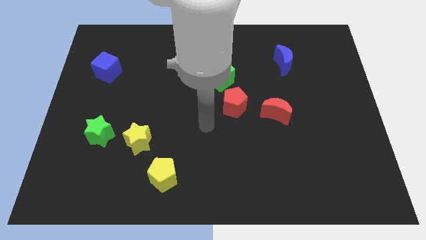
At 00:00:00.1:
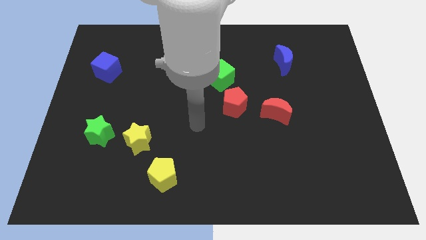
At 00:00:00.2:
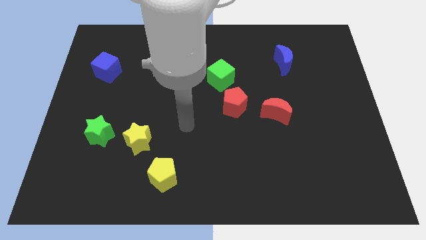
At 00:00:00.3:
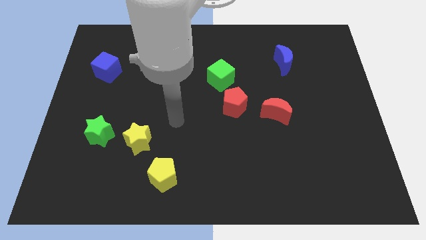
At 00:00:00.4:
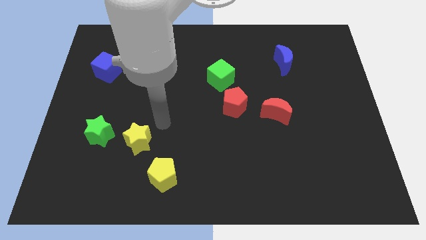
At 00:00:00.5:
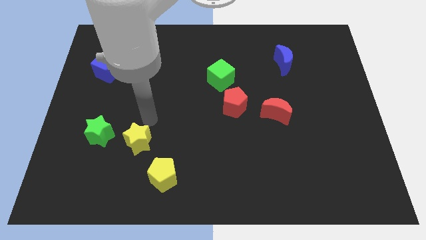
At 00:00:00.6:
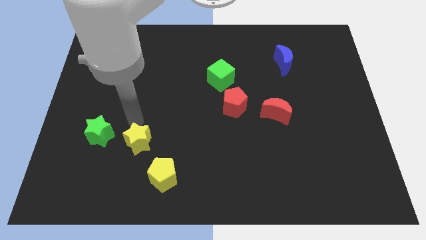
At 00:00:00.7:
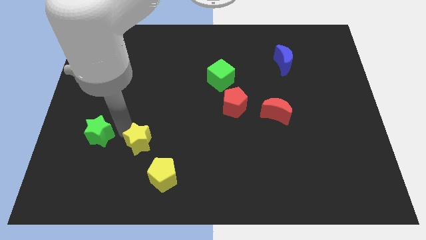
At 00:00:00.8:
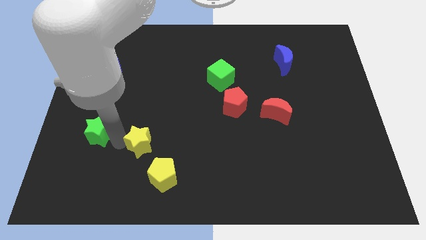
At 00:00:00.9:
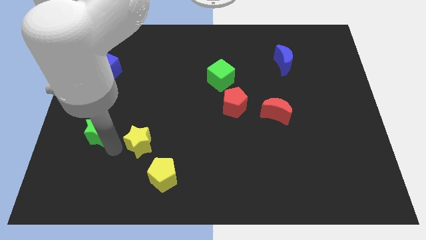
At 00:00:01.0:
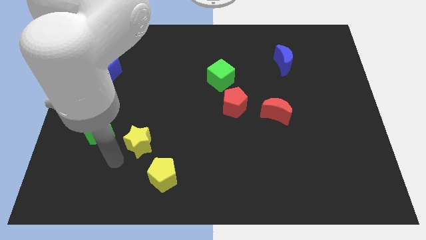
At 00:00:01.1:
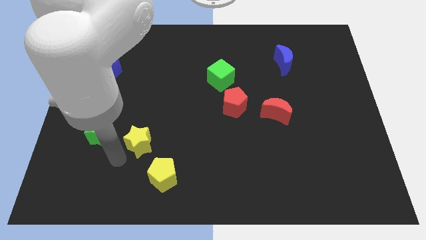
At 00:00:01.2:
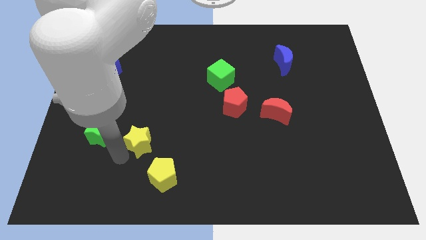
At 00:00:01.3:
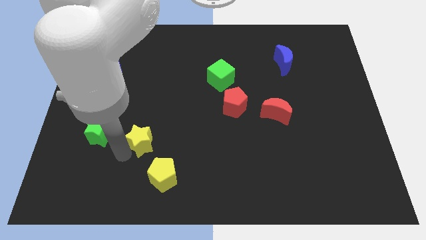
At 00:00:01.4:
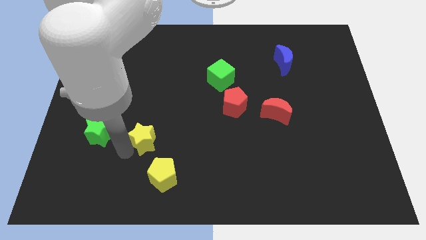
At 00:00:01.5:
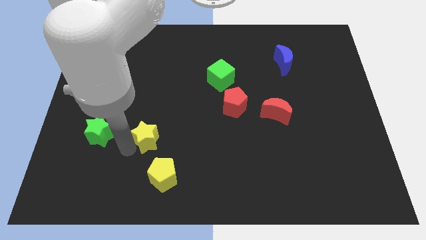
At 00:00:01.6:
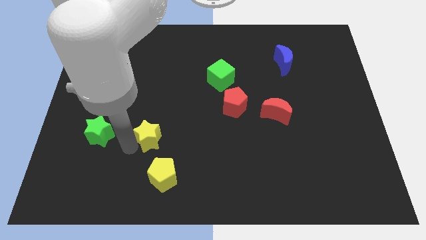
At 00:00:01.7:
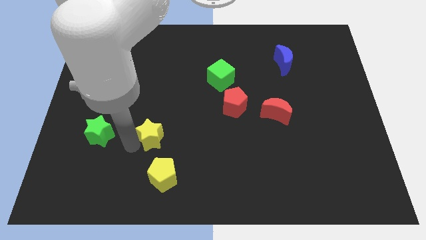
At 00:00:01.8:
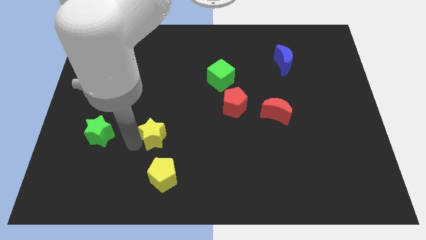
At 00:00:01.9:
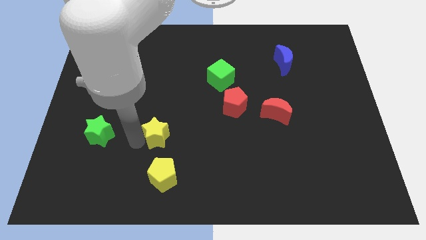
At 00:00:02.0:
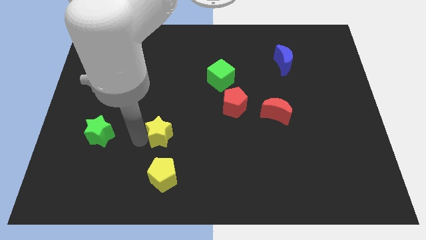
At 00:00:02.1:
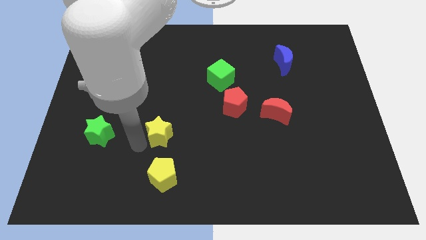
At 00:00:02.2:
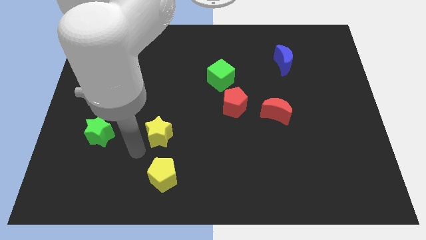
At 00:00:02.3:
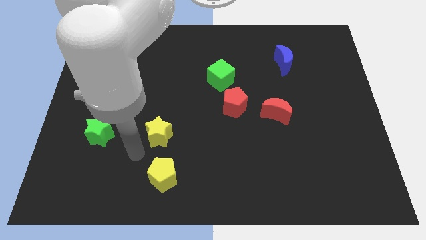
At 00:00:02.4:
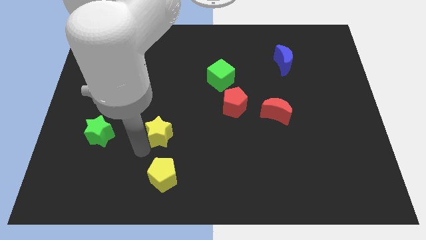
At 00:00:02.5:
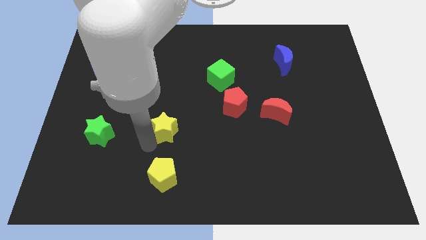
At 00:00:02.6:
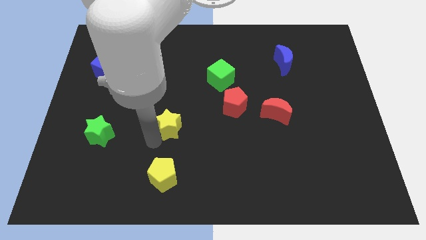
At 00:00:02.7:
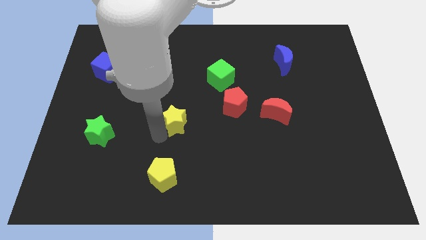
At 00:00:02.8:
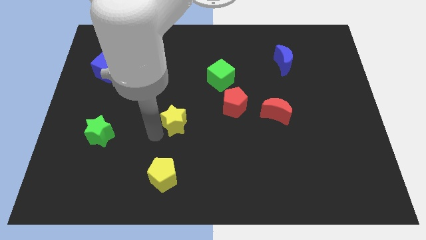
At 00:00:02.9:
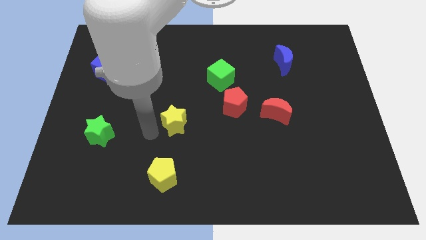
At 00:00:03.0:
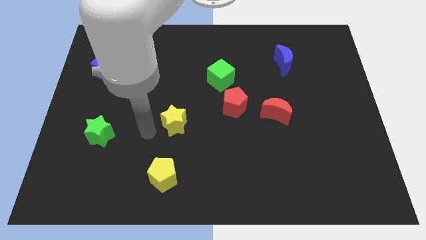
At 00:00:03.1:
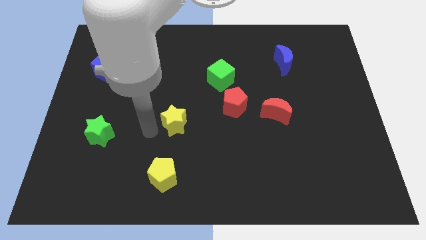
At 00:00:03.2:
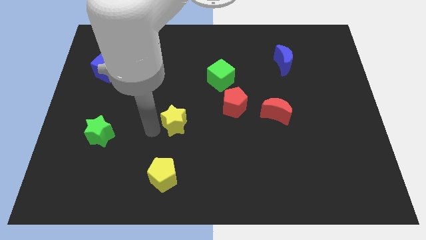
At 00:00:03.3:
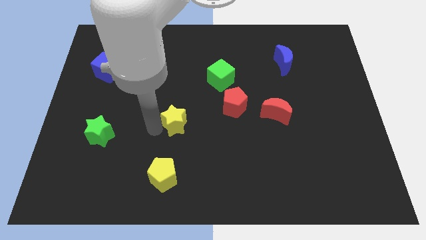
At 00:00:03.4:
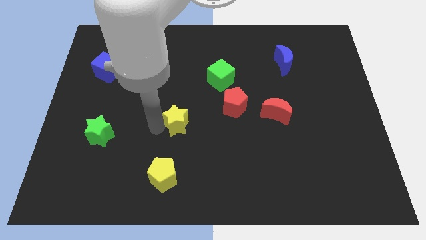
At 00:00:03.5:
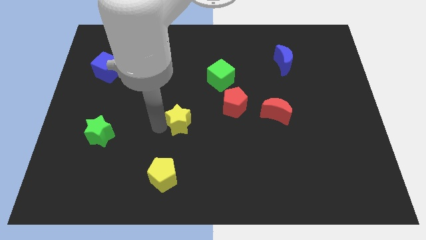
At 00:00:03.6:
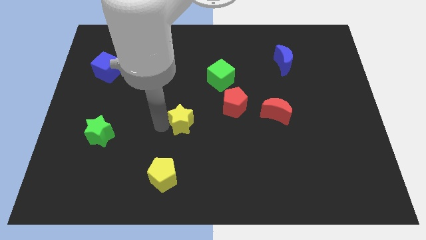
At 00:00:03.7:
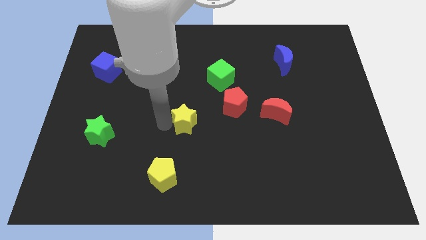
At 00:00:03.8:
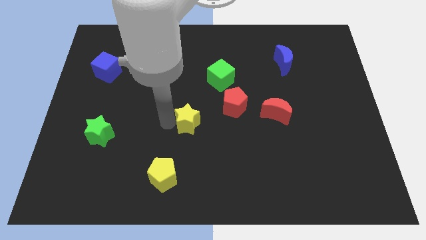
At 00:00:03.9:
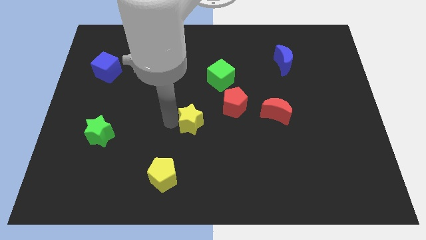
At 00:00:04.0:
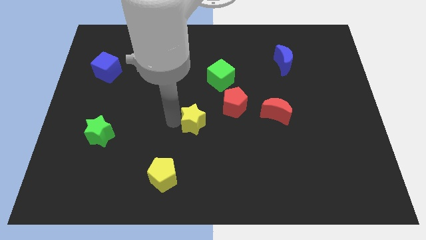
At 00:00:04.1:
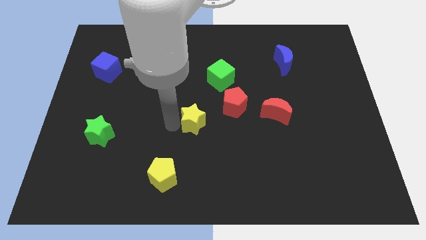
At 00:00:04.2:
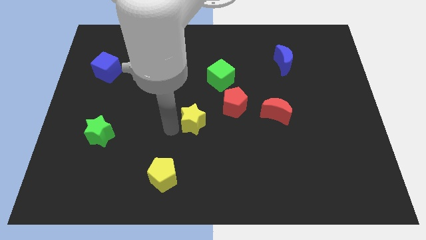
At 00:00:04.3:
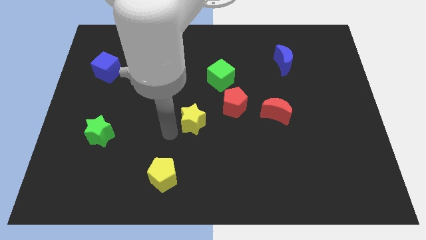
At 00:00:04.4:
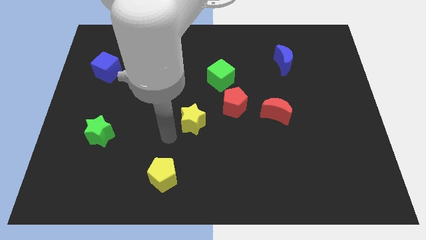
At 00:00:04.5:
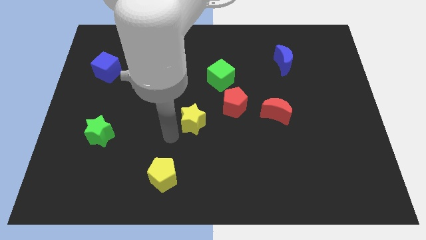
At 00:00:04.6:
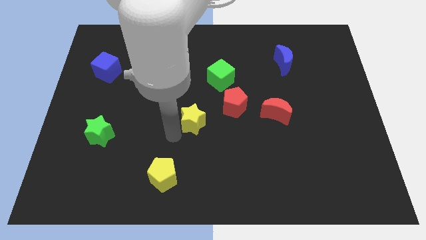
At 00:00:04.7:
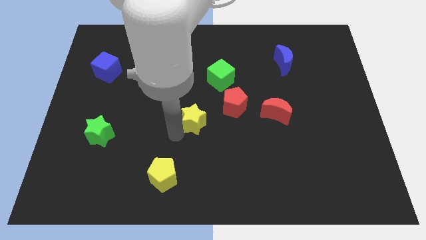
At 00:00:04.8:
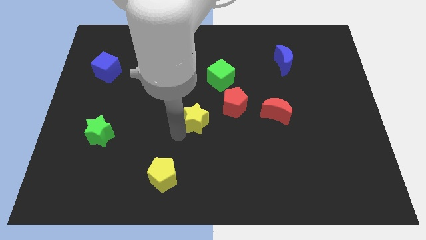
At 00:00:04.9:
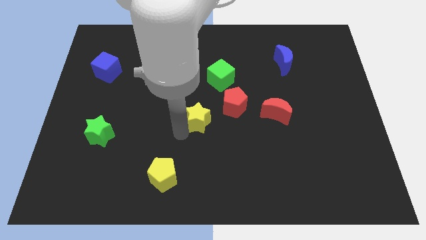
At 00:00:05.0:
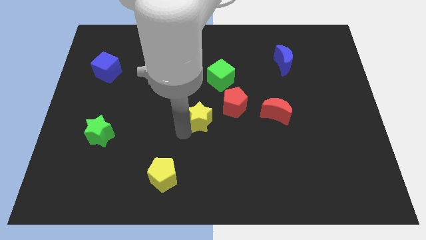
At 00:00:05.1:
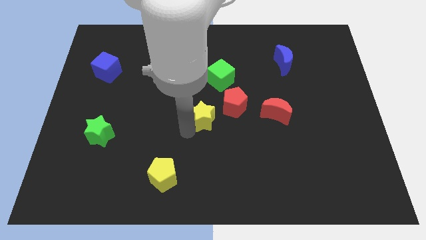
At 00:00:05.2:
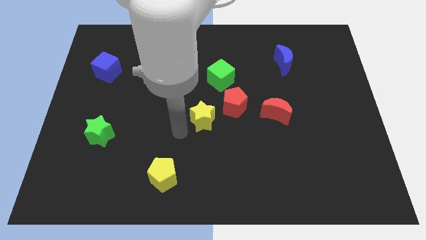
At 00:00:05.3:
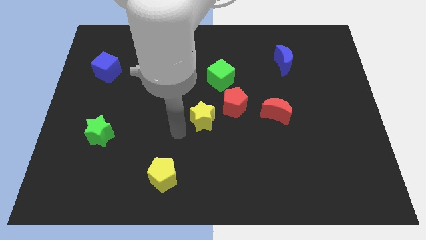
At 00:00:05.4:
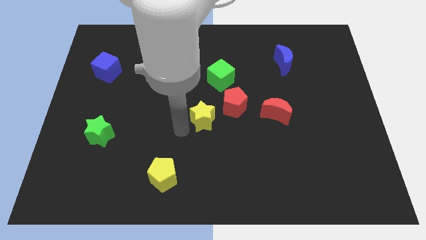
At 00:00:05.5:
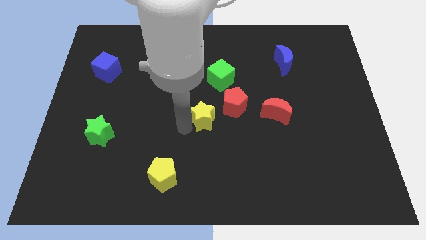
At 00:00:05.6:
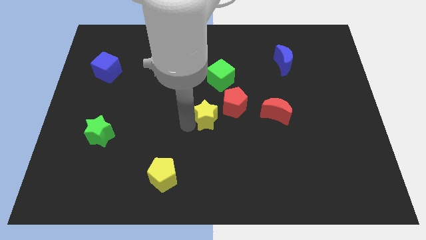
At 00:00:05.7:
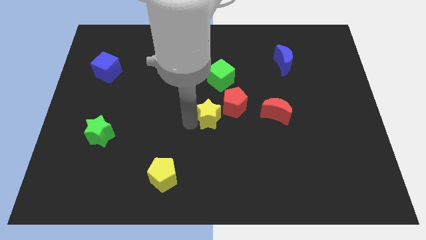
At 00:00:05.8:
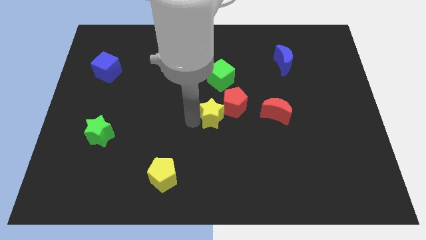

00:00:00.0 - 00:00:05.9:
slide the yellow star to the red pentagon

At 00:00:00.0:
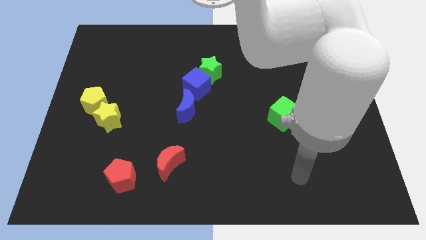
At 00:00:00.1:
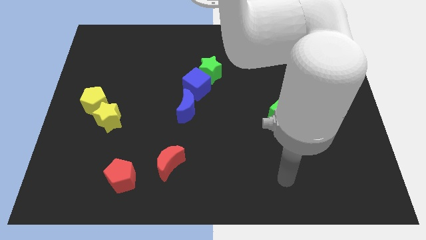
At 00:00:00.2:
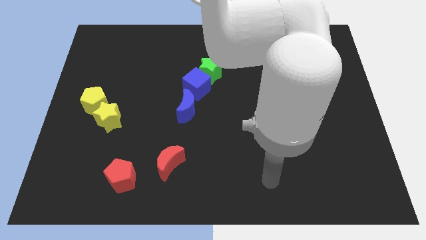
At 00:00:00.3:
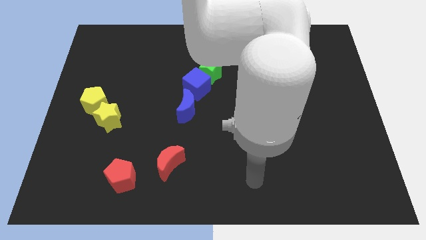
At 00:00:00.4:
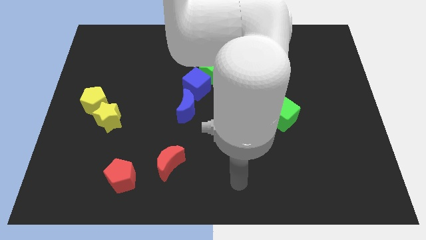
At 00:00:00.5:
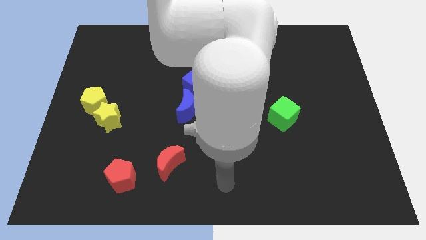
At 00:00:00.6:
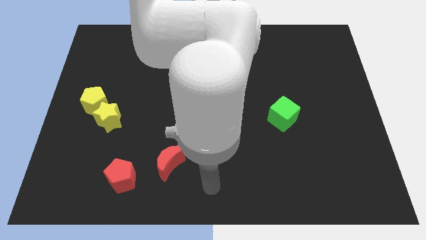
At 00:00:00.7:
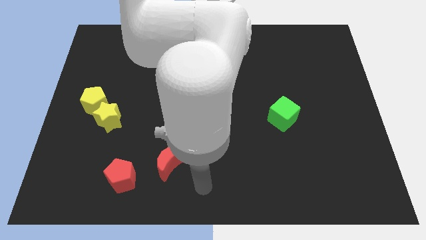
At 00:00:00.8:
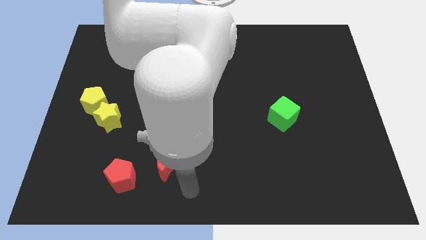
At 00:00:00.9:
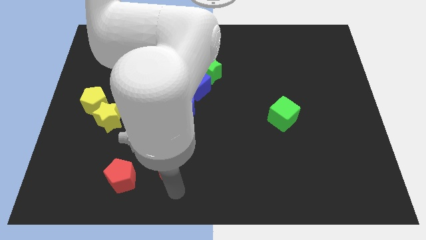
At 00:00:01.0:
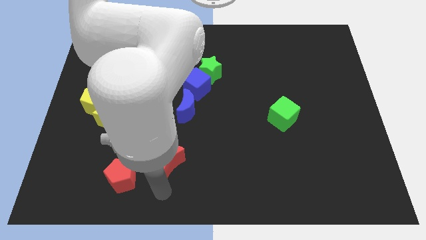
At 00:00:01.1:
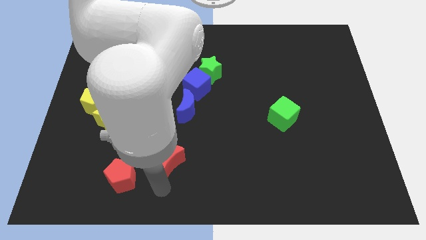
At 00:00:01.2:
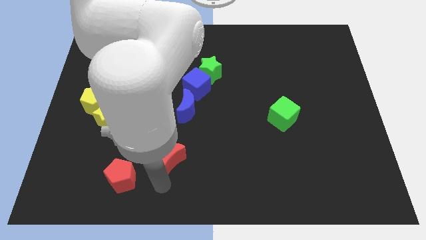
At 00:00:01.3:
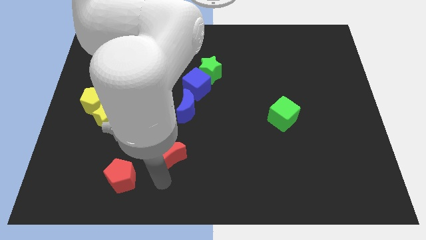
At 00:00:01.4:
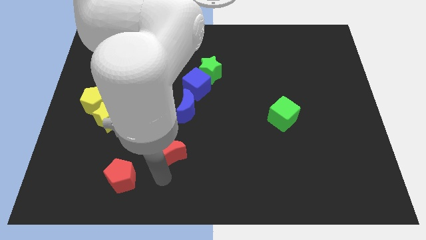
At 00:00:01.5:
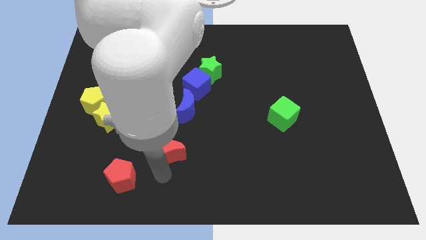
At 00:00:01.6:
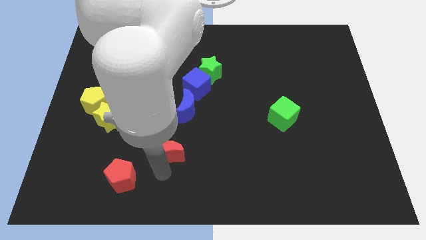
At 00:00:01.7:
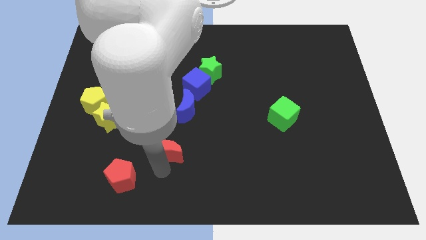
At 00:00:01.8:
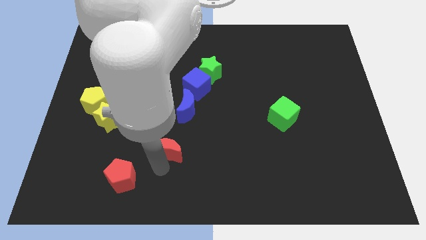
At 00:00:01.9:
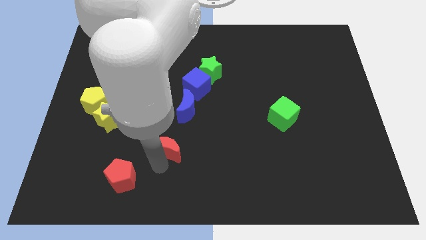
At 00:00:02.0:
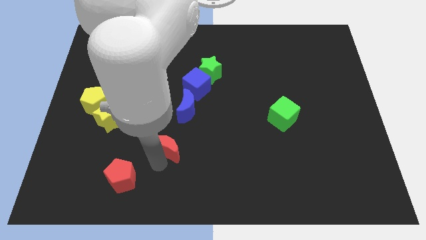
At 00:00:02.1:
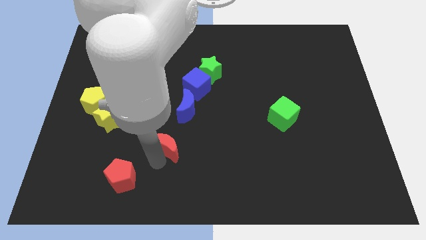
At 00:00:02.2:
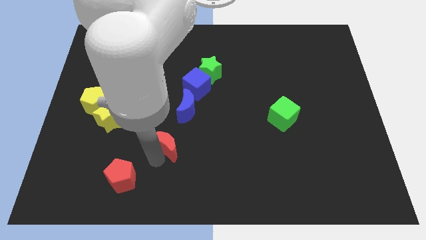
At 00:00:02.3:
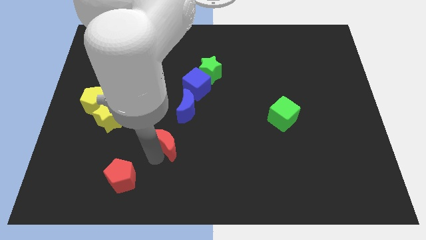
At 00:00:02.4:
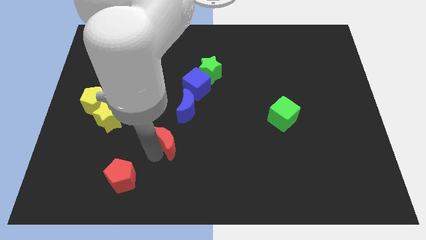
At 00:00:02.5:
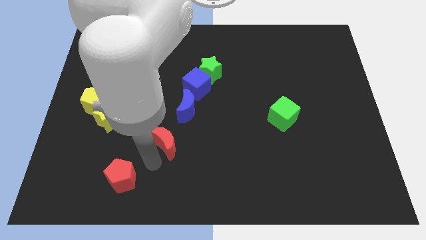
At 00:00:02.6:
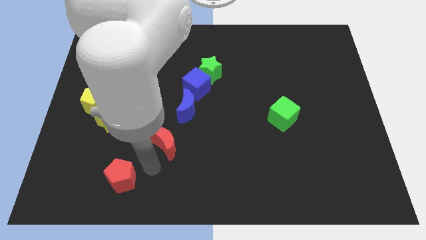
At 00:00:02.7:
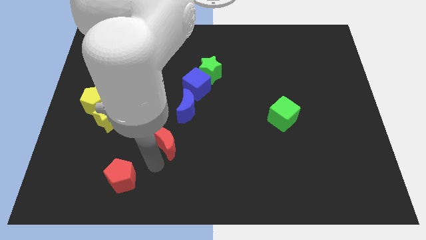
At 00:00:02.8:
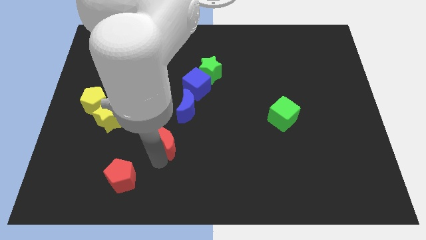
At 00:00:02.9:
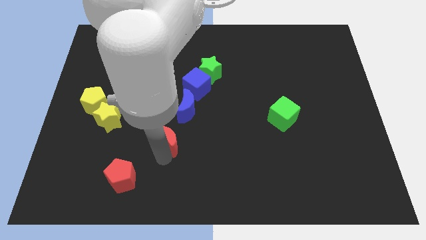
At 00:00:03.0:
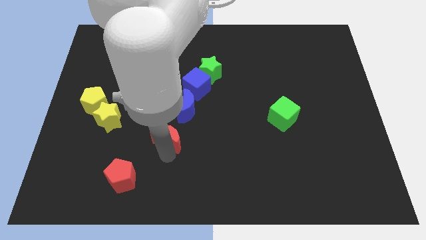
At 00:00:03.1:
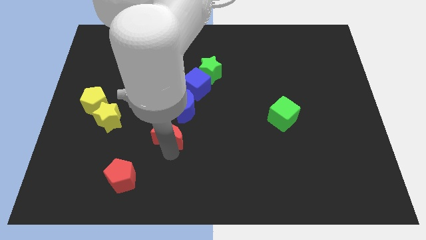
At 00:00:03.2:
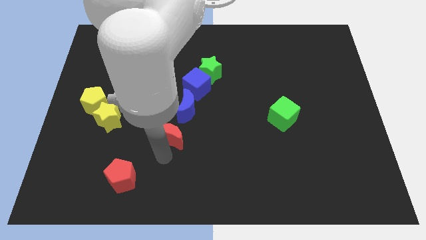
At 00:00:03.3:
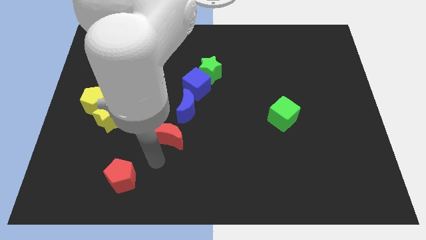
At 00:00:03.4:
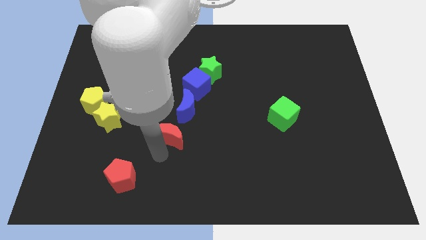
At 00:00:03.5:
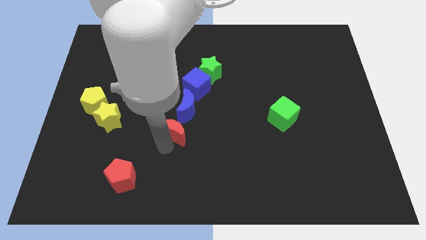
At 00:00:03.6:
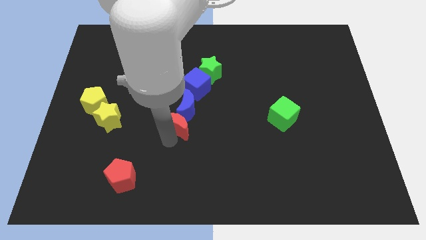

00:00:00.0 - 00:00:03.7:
slide the red moon towards the blue moon
